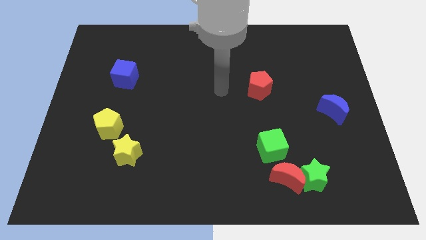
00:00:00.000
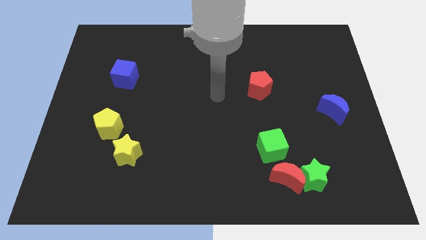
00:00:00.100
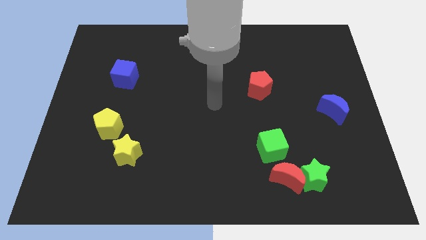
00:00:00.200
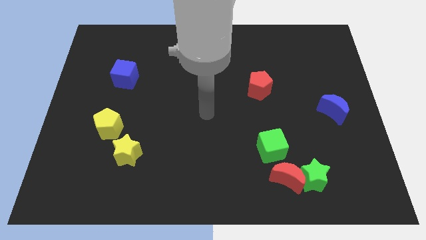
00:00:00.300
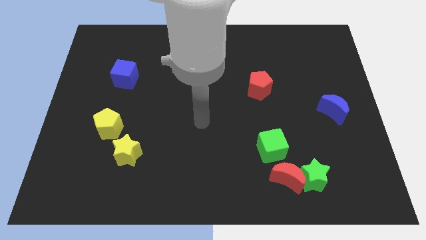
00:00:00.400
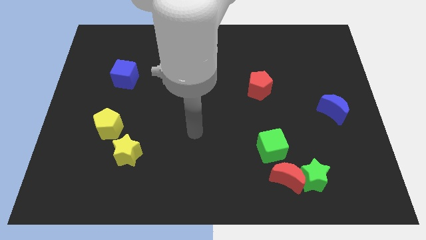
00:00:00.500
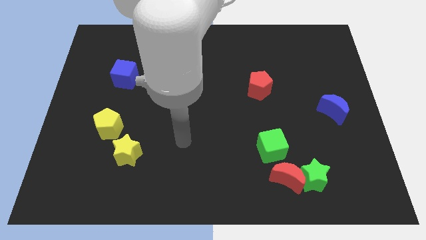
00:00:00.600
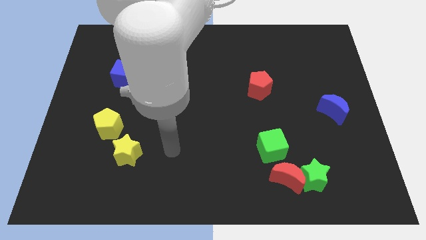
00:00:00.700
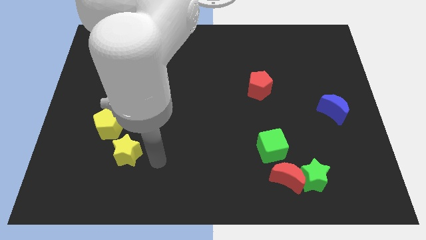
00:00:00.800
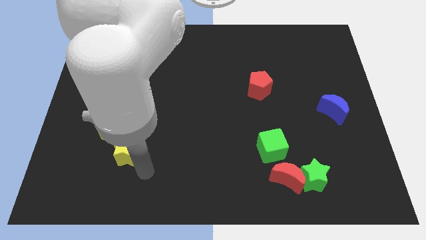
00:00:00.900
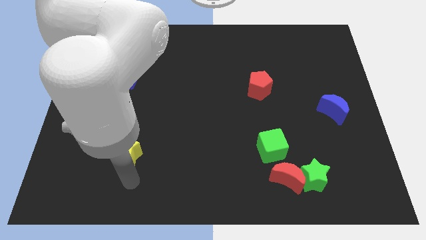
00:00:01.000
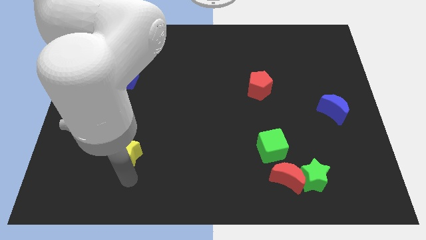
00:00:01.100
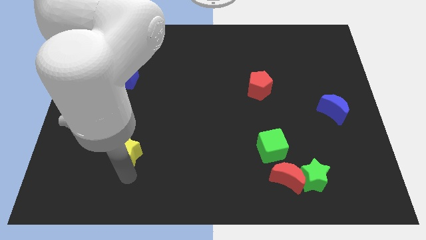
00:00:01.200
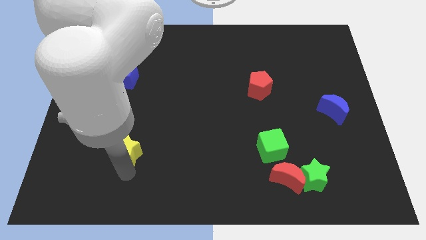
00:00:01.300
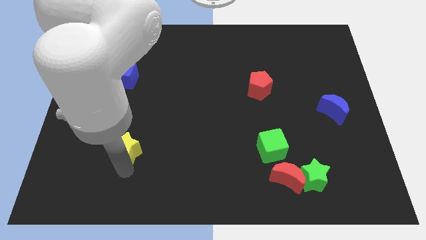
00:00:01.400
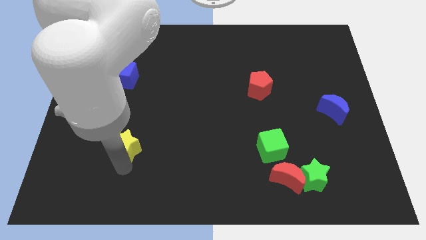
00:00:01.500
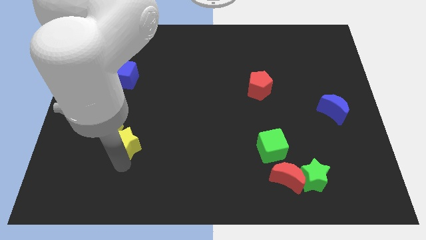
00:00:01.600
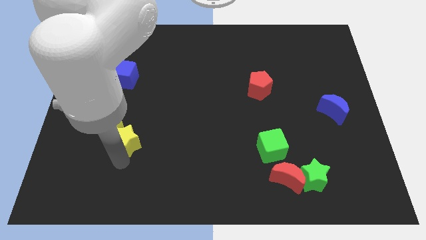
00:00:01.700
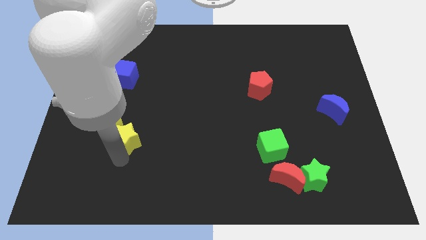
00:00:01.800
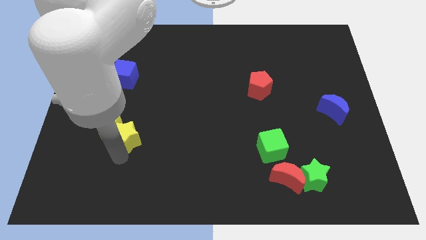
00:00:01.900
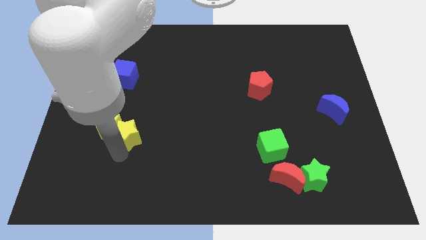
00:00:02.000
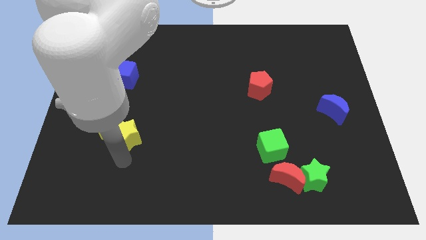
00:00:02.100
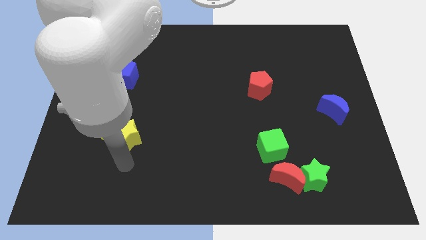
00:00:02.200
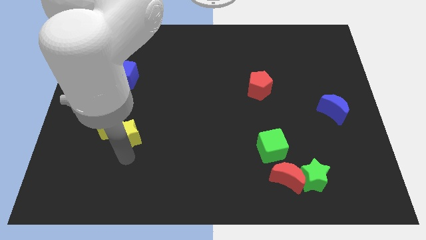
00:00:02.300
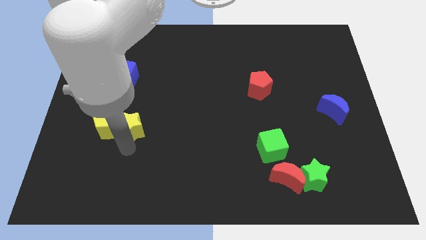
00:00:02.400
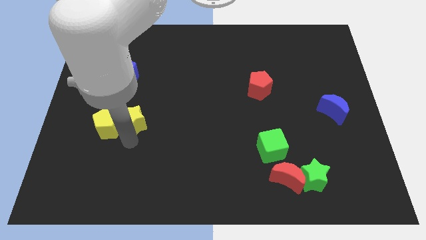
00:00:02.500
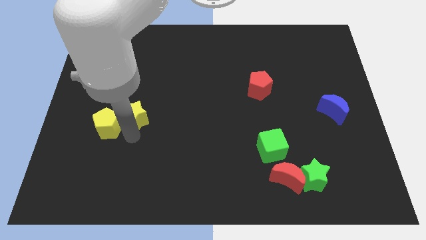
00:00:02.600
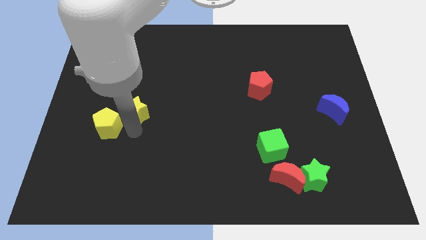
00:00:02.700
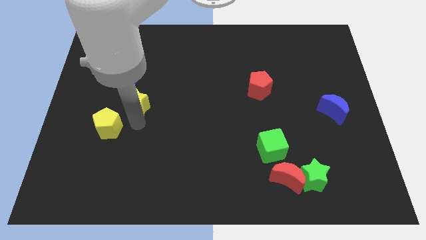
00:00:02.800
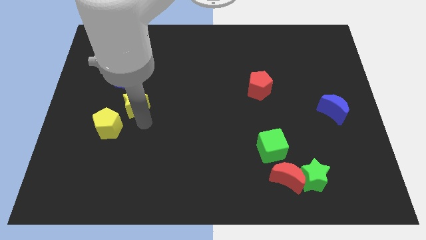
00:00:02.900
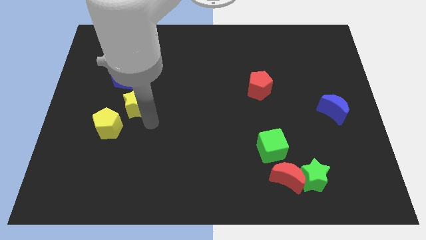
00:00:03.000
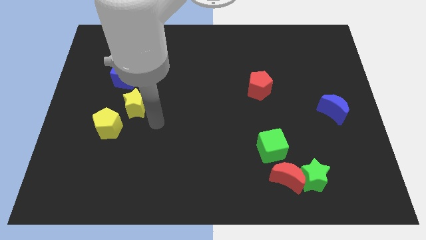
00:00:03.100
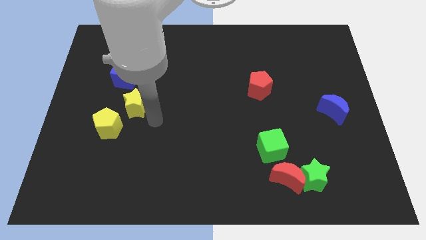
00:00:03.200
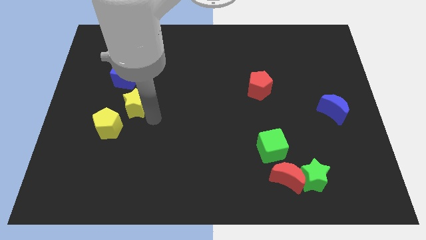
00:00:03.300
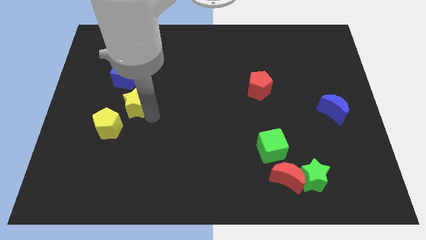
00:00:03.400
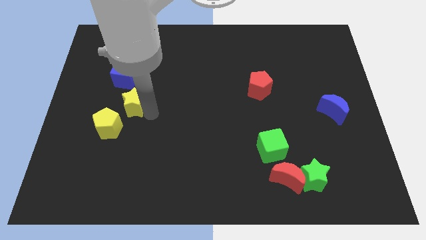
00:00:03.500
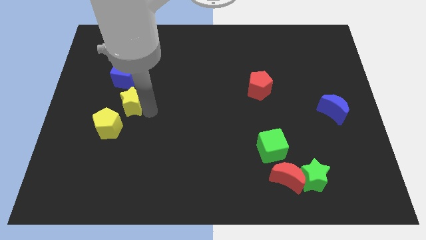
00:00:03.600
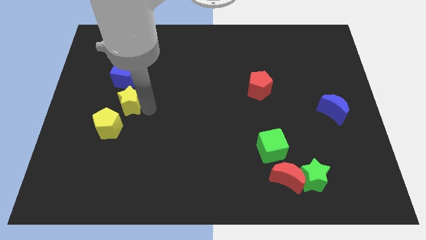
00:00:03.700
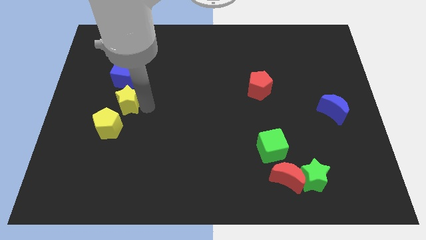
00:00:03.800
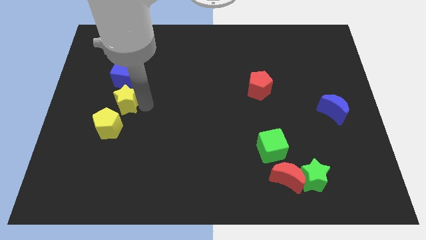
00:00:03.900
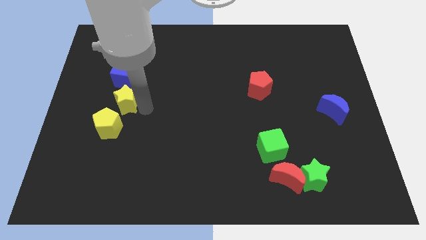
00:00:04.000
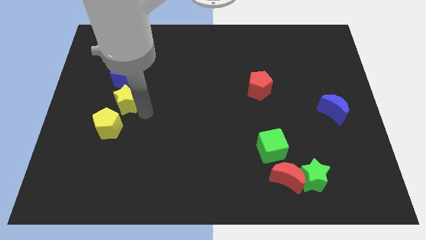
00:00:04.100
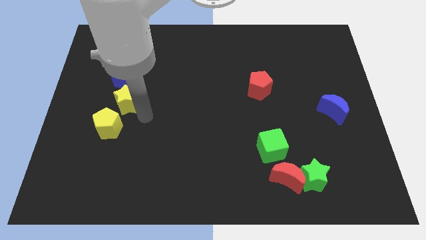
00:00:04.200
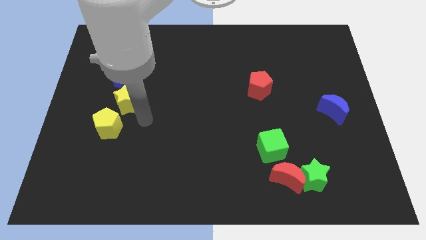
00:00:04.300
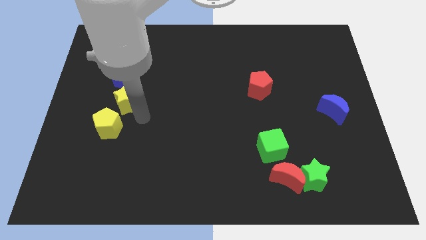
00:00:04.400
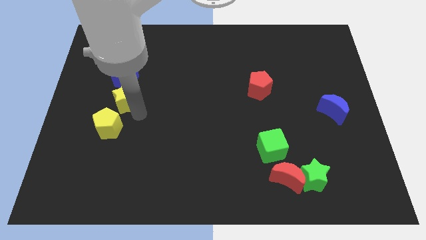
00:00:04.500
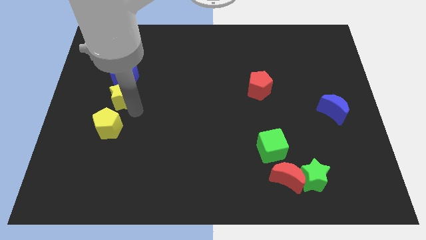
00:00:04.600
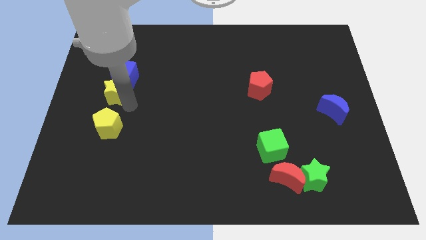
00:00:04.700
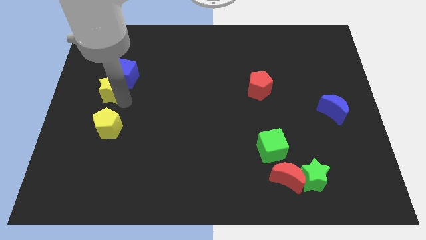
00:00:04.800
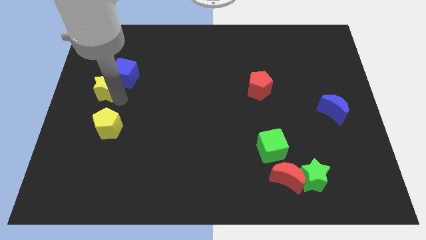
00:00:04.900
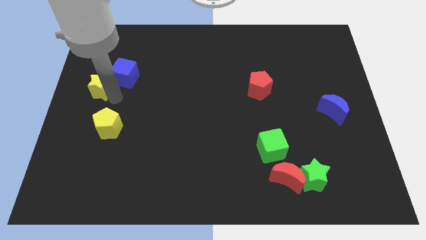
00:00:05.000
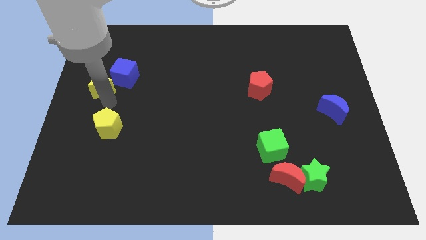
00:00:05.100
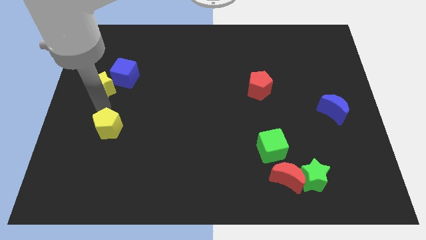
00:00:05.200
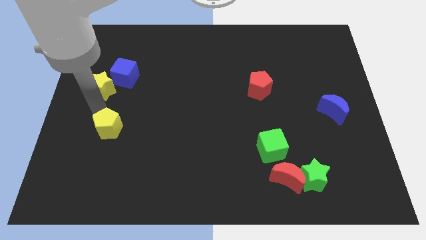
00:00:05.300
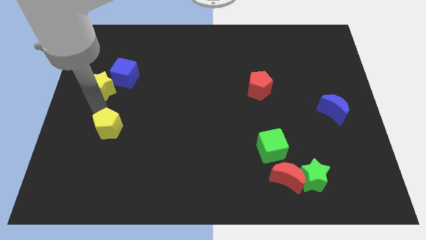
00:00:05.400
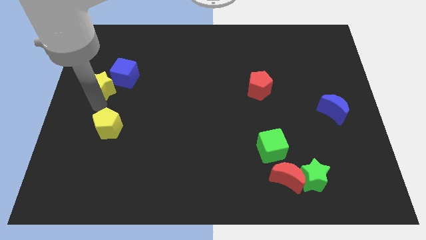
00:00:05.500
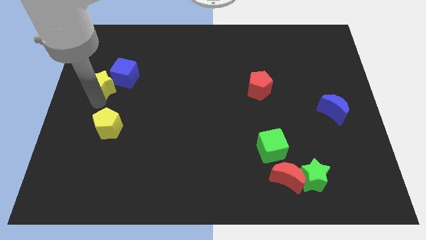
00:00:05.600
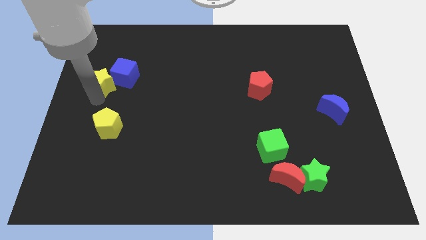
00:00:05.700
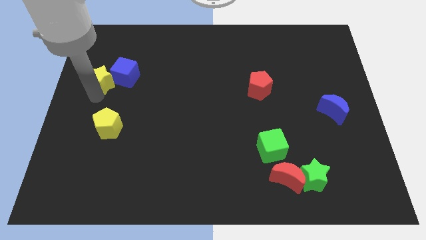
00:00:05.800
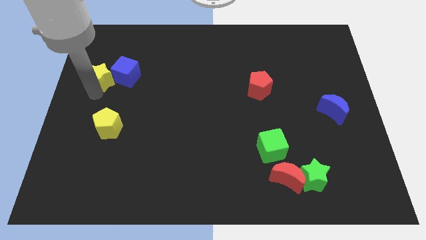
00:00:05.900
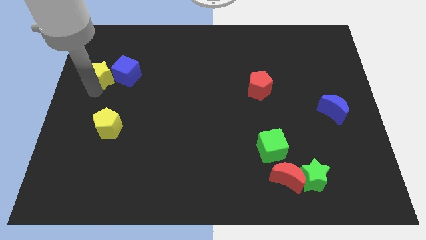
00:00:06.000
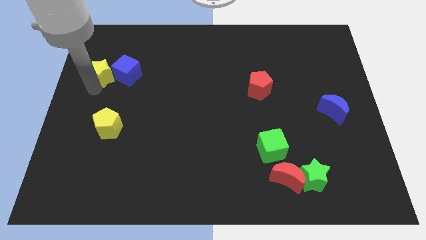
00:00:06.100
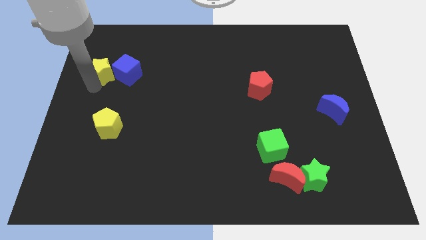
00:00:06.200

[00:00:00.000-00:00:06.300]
put the yellow star to the top left side of the blue cube

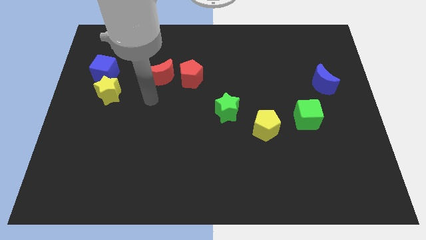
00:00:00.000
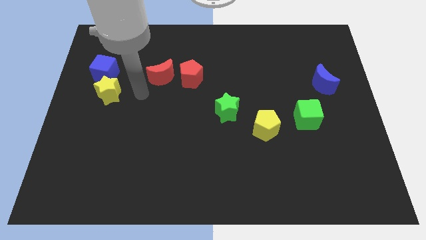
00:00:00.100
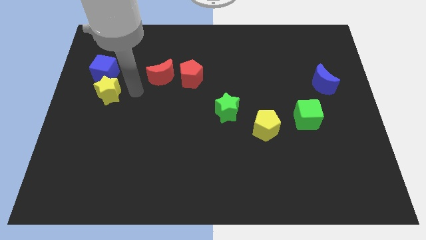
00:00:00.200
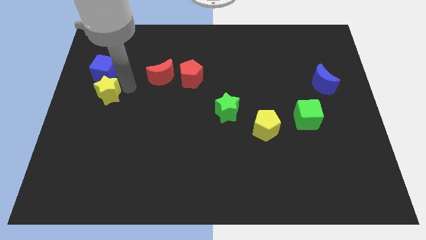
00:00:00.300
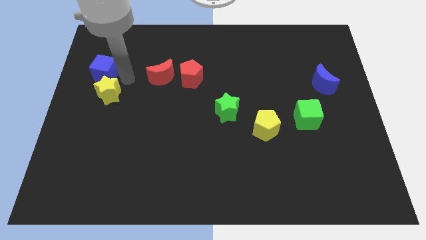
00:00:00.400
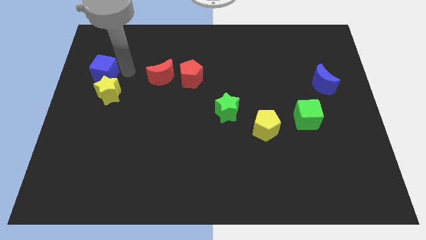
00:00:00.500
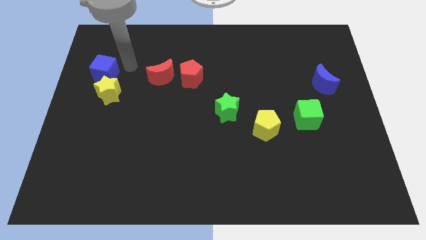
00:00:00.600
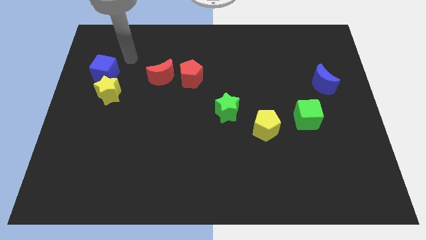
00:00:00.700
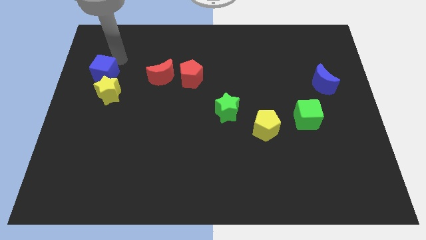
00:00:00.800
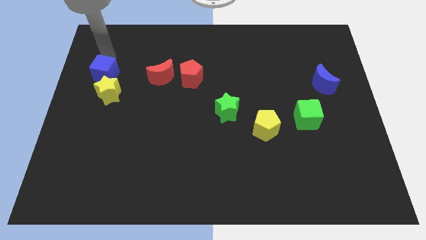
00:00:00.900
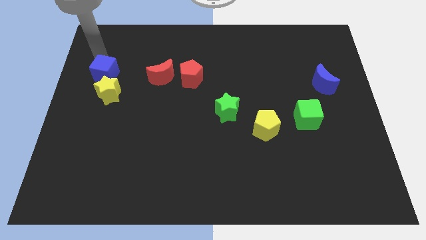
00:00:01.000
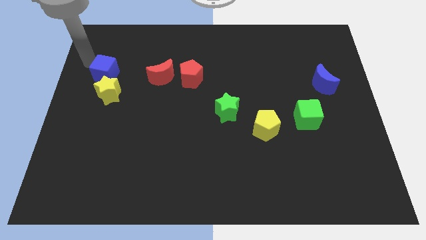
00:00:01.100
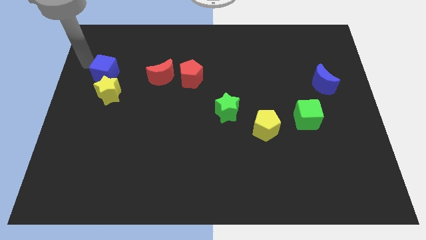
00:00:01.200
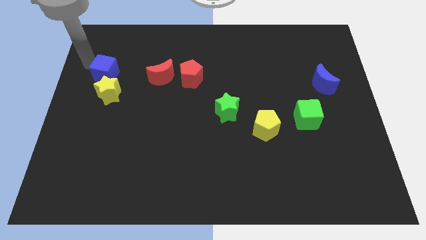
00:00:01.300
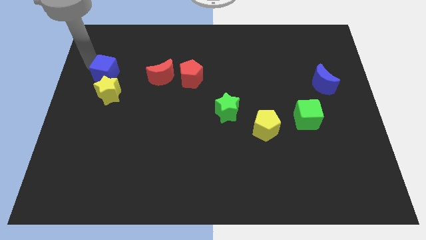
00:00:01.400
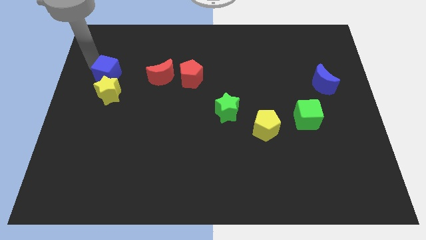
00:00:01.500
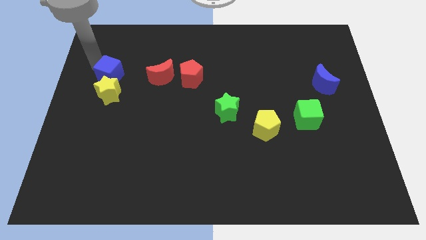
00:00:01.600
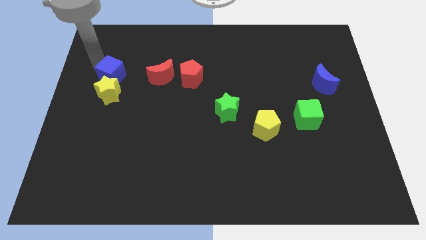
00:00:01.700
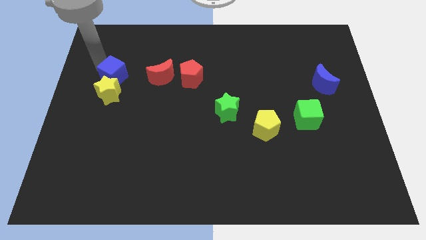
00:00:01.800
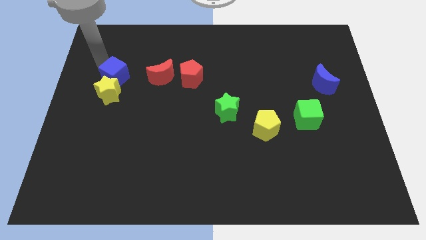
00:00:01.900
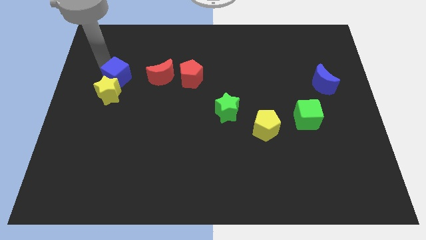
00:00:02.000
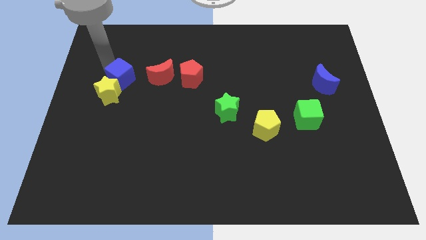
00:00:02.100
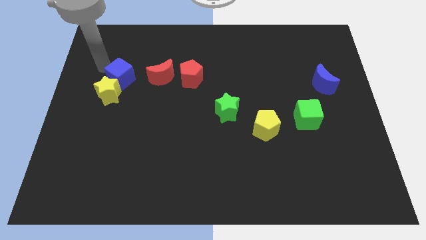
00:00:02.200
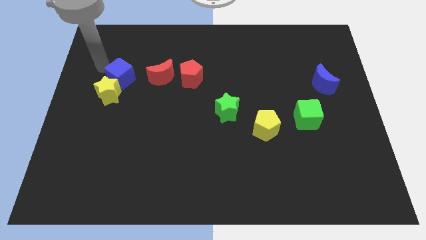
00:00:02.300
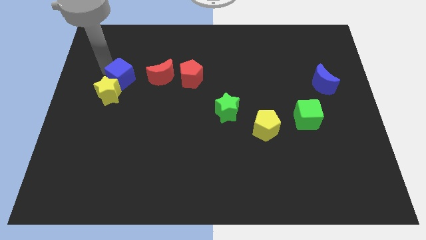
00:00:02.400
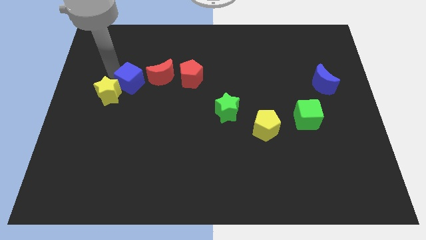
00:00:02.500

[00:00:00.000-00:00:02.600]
put the blue cube to the right side of the yellow star
